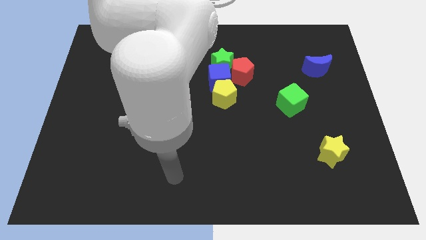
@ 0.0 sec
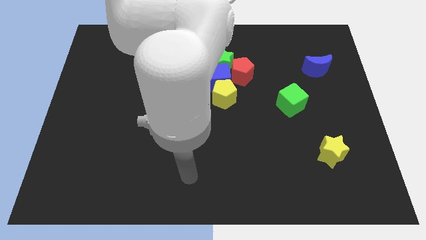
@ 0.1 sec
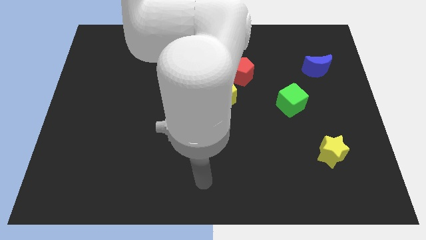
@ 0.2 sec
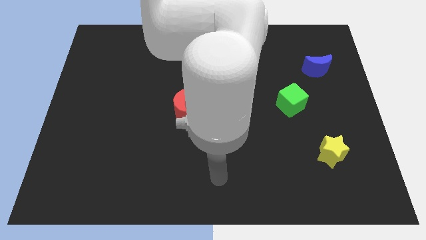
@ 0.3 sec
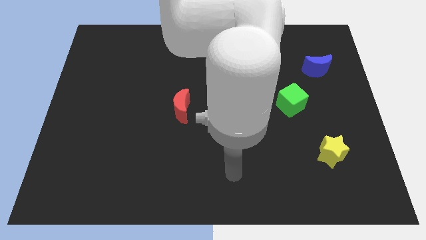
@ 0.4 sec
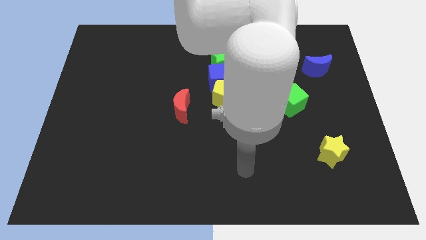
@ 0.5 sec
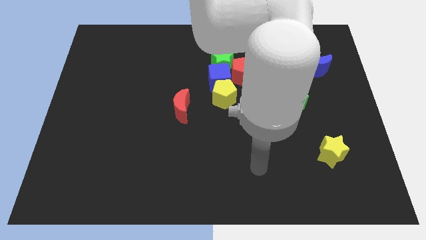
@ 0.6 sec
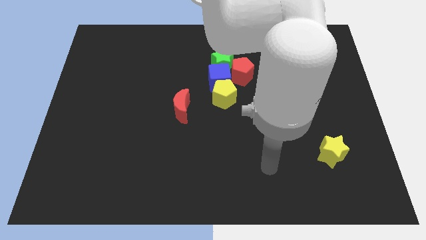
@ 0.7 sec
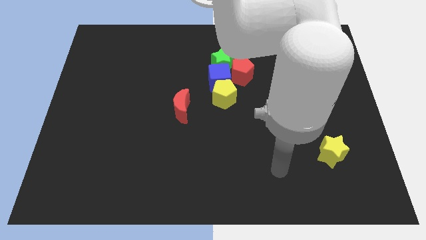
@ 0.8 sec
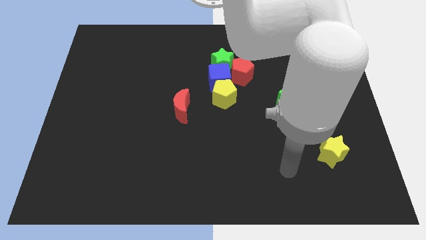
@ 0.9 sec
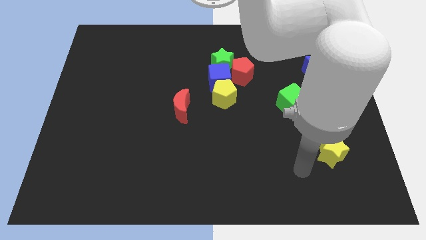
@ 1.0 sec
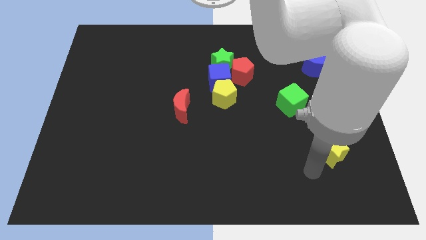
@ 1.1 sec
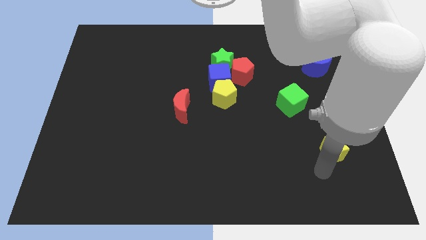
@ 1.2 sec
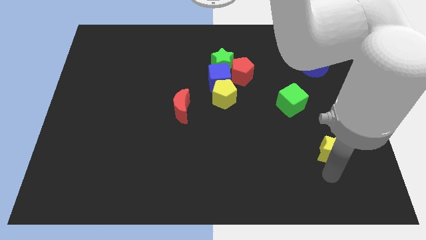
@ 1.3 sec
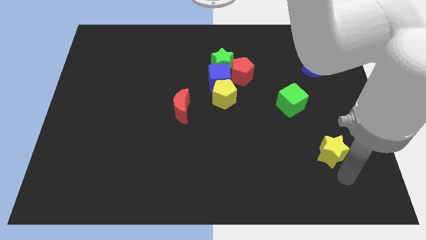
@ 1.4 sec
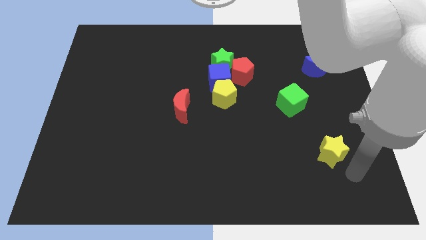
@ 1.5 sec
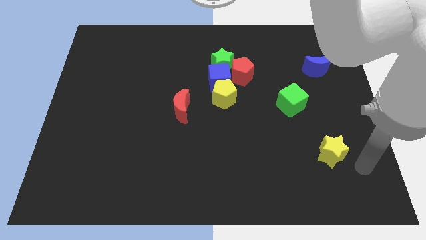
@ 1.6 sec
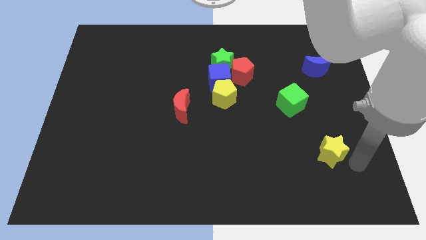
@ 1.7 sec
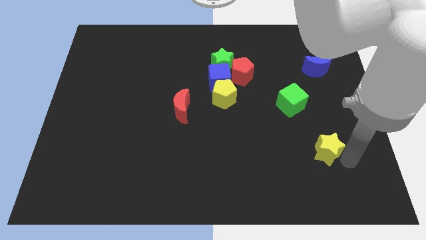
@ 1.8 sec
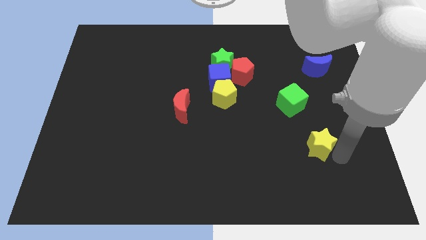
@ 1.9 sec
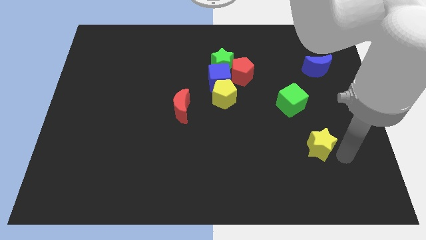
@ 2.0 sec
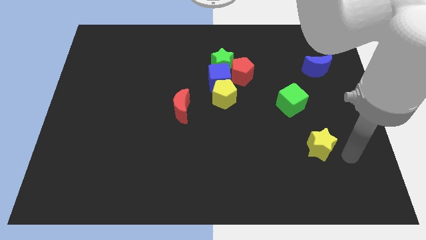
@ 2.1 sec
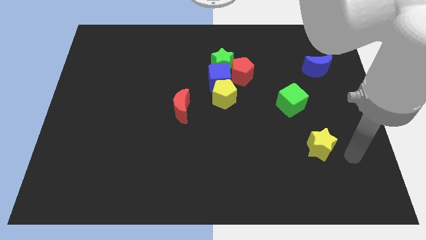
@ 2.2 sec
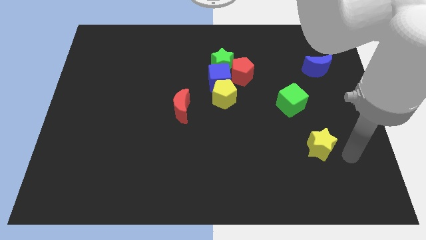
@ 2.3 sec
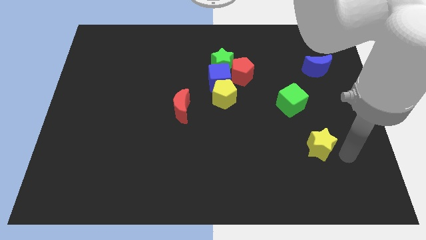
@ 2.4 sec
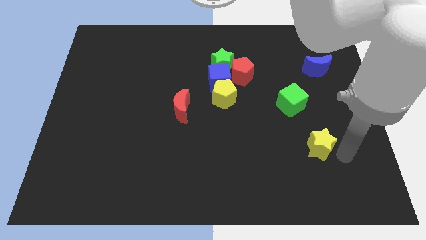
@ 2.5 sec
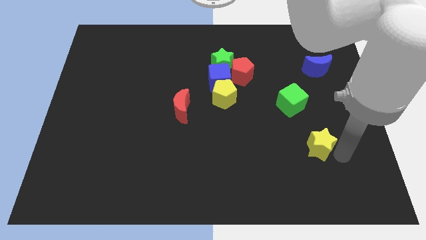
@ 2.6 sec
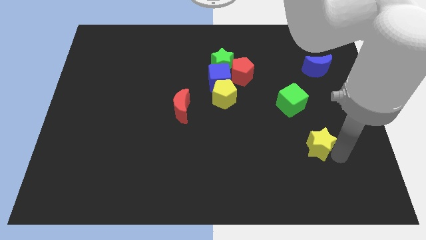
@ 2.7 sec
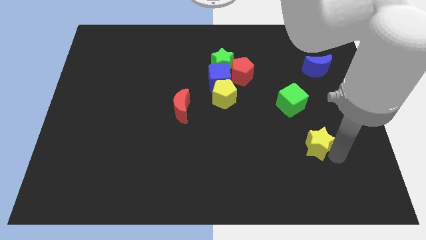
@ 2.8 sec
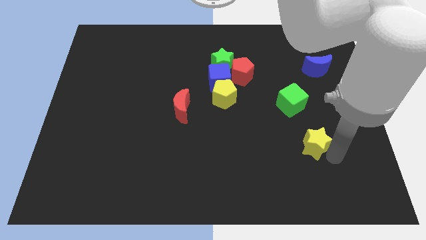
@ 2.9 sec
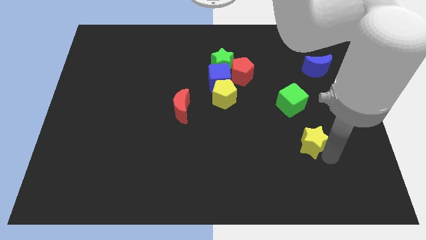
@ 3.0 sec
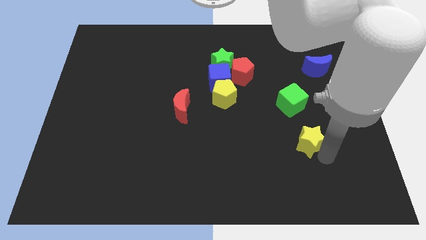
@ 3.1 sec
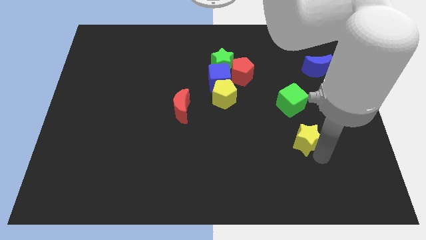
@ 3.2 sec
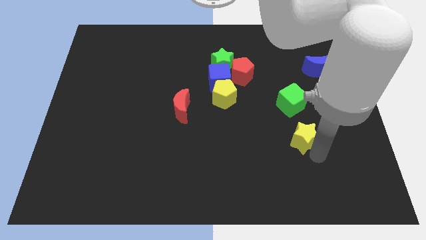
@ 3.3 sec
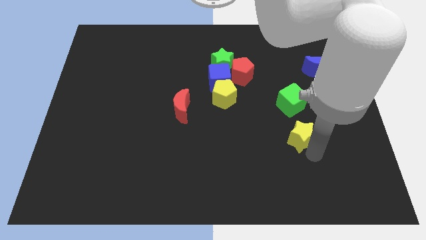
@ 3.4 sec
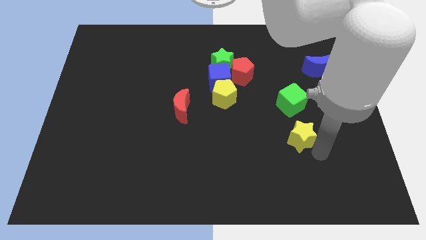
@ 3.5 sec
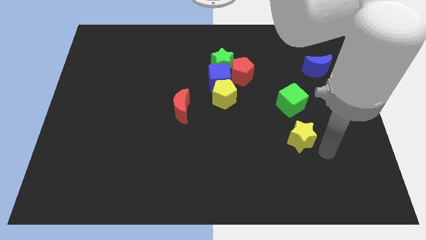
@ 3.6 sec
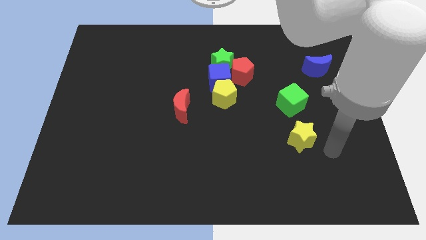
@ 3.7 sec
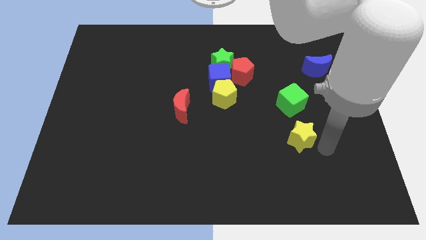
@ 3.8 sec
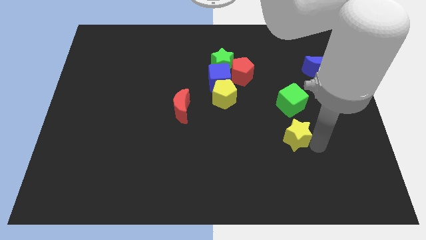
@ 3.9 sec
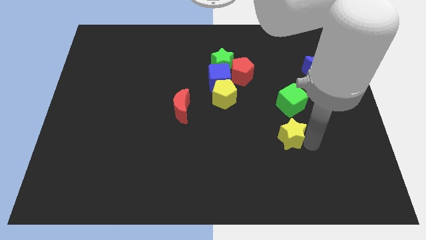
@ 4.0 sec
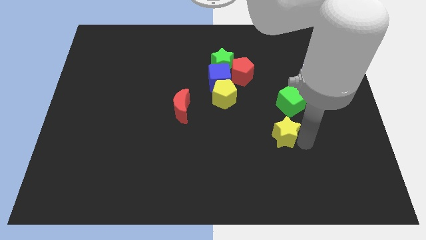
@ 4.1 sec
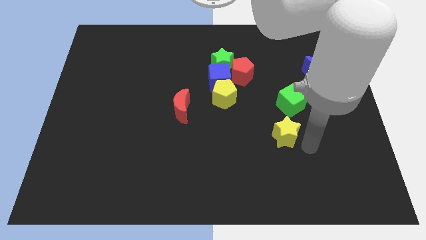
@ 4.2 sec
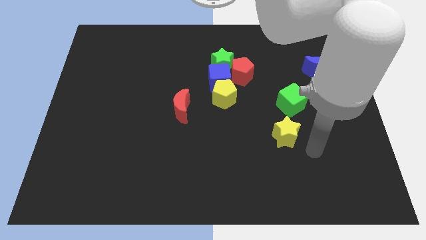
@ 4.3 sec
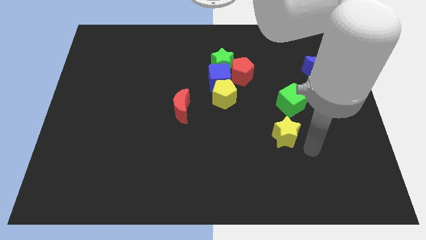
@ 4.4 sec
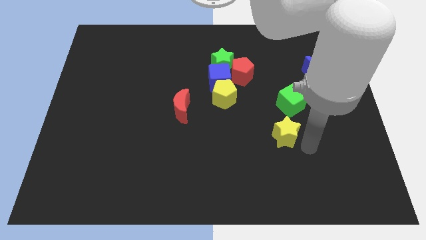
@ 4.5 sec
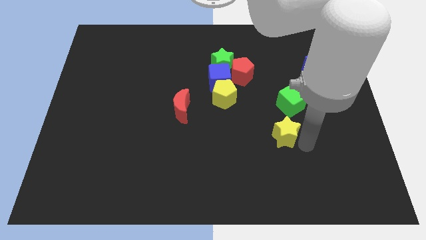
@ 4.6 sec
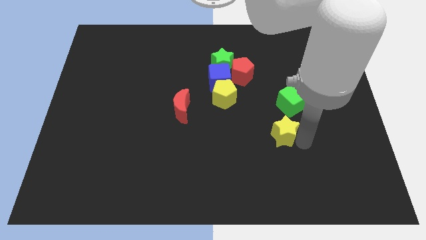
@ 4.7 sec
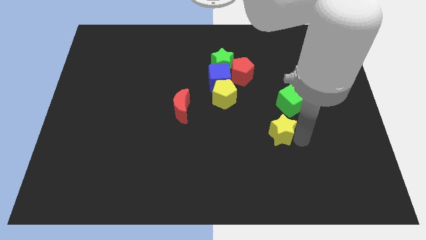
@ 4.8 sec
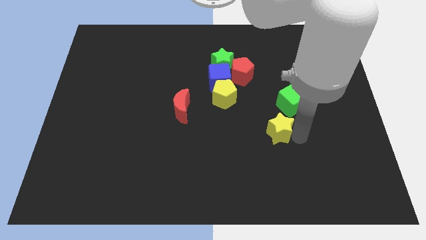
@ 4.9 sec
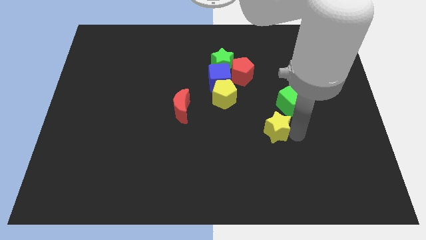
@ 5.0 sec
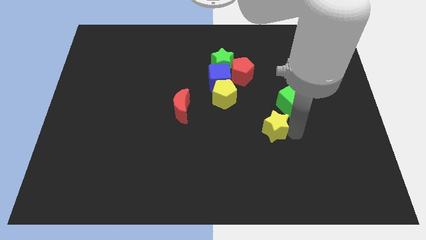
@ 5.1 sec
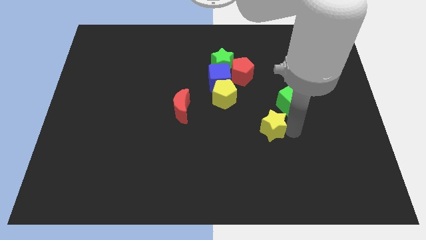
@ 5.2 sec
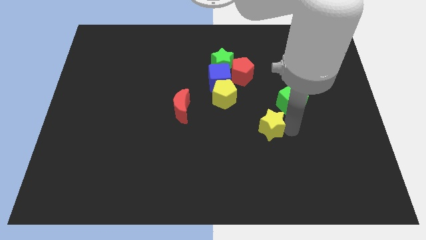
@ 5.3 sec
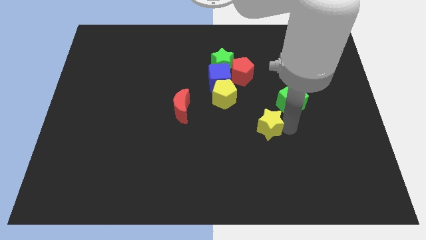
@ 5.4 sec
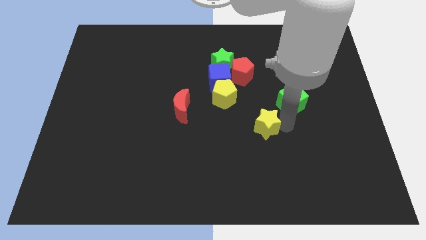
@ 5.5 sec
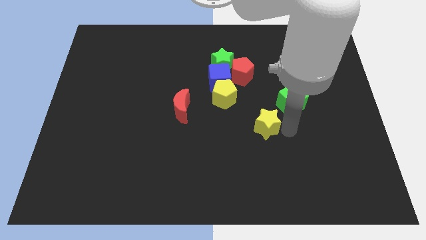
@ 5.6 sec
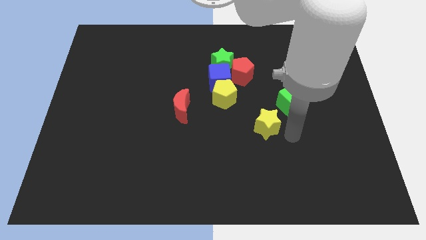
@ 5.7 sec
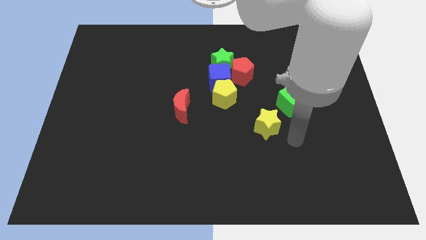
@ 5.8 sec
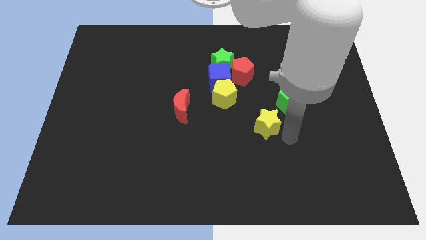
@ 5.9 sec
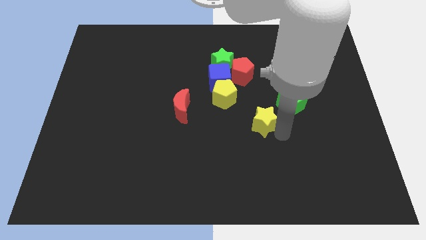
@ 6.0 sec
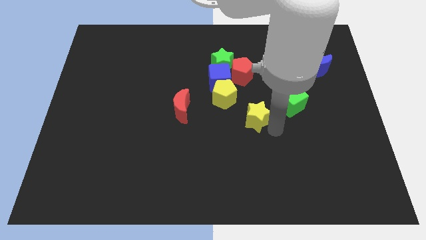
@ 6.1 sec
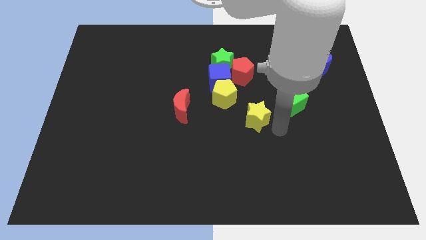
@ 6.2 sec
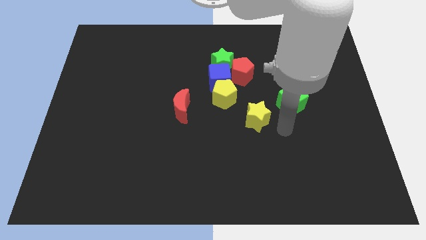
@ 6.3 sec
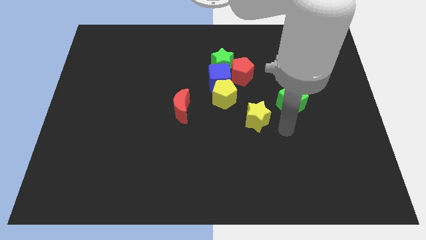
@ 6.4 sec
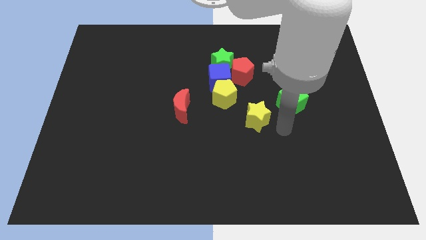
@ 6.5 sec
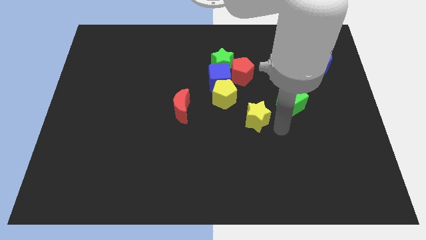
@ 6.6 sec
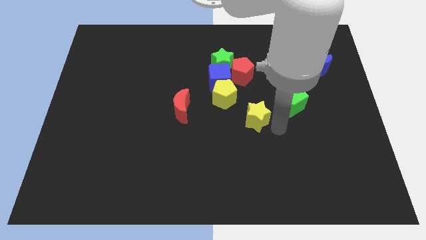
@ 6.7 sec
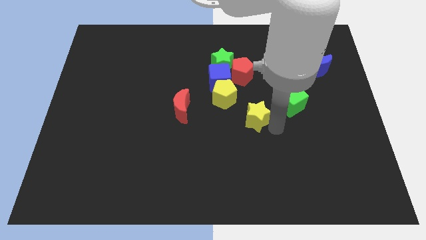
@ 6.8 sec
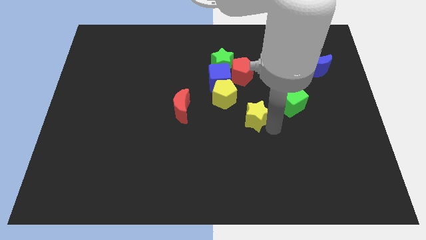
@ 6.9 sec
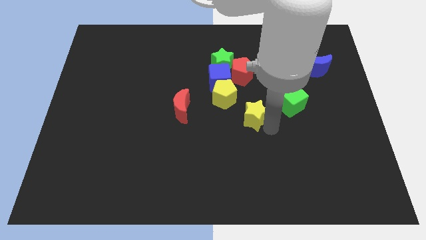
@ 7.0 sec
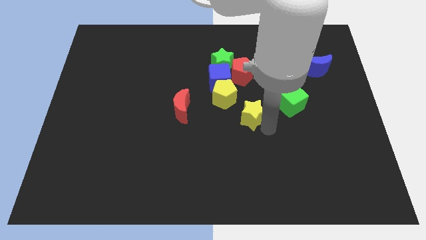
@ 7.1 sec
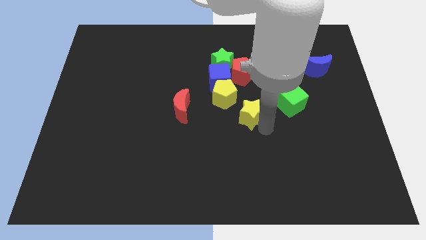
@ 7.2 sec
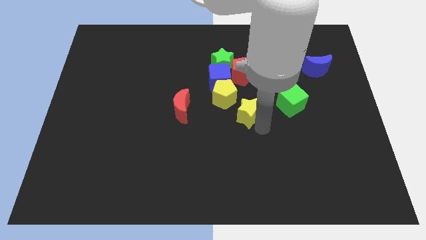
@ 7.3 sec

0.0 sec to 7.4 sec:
put the yellow star to the right of the red moon
